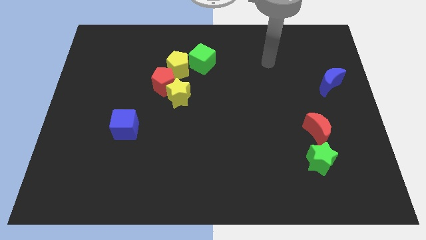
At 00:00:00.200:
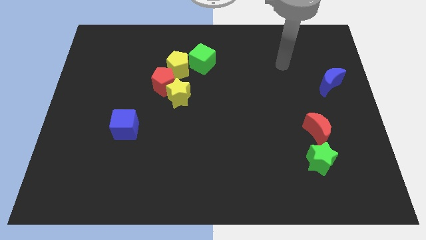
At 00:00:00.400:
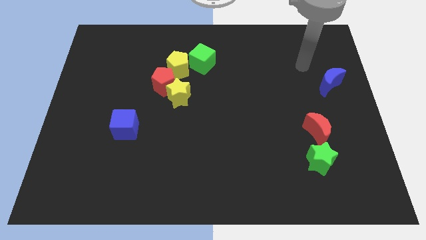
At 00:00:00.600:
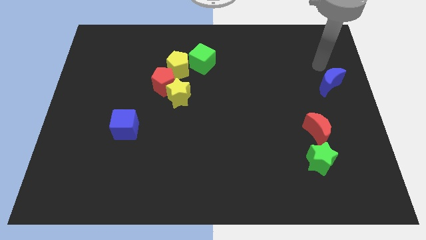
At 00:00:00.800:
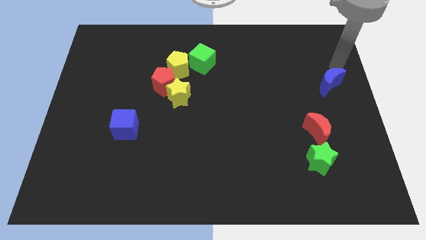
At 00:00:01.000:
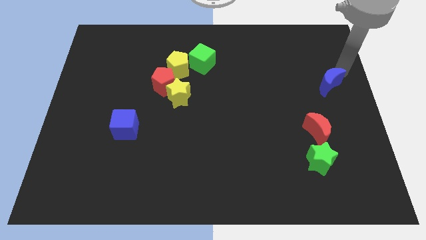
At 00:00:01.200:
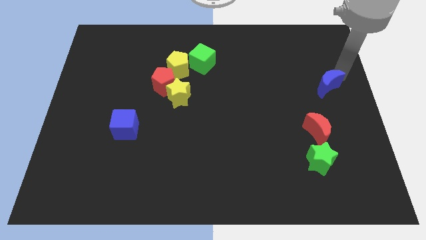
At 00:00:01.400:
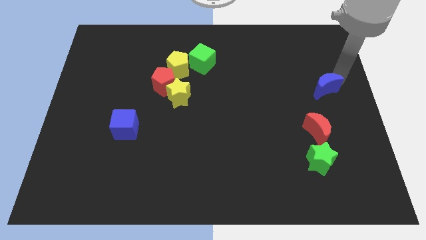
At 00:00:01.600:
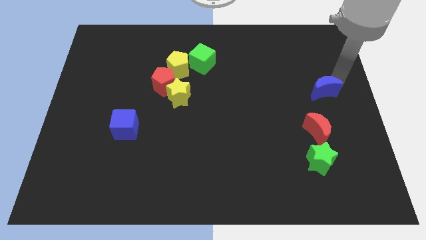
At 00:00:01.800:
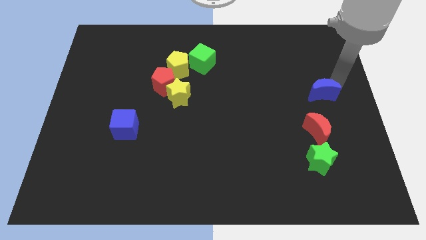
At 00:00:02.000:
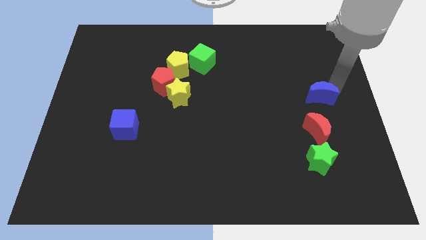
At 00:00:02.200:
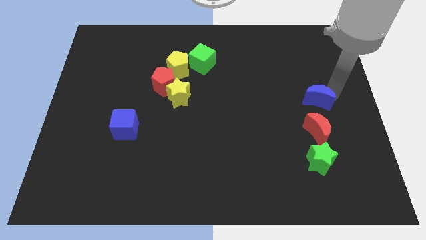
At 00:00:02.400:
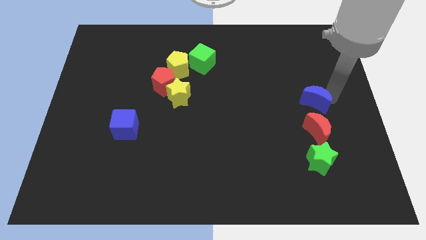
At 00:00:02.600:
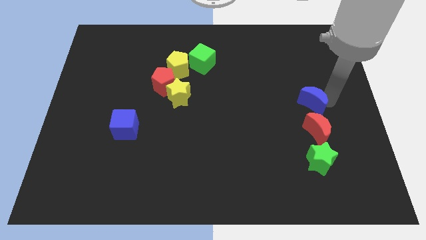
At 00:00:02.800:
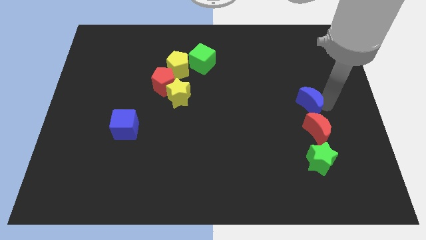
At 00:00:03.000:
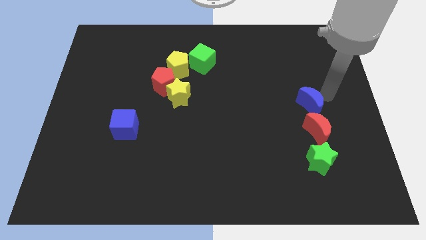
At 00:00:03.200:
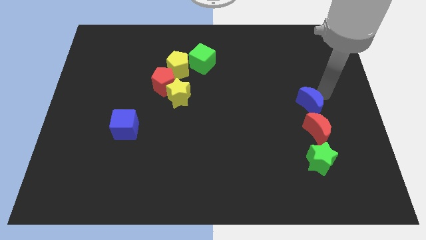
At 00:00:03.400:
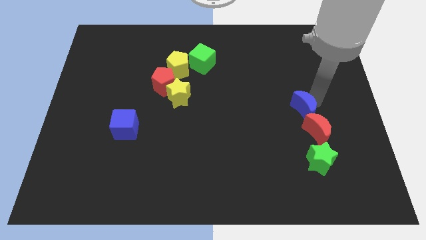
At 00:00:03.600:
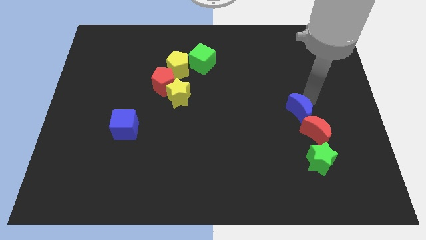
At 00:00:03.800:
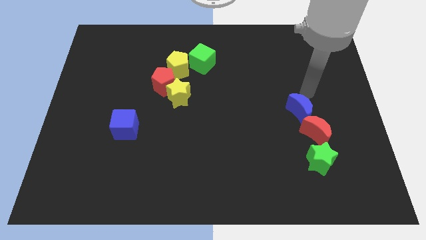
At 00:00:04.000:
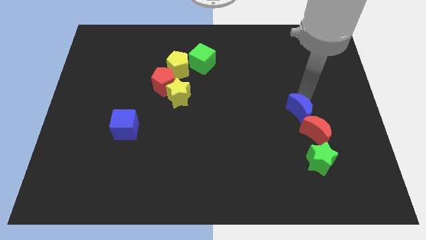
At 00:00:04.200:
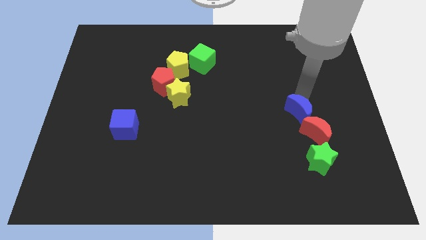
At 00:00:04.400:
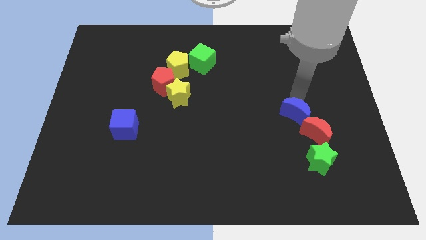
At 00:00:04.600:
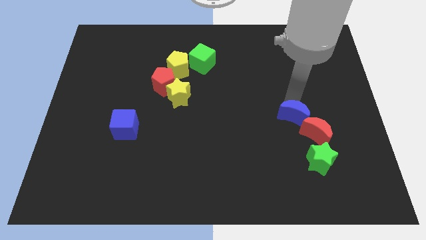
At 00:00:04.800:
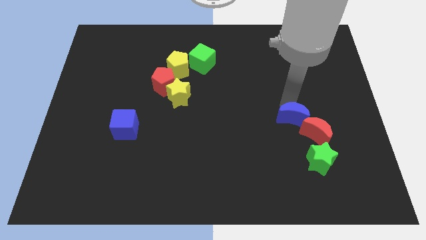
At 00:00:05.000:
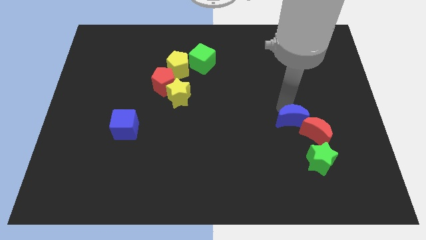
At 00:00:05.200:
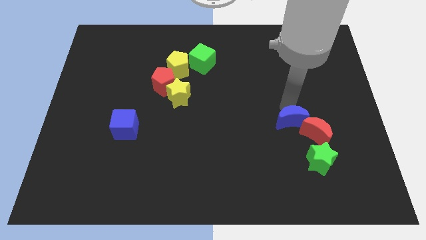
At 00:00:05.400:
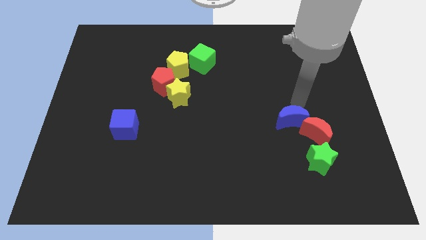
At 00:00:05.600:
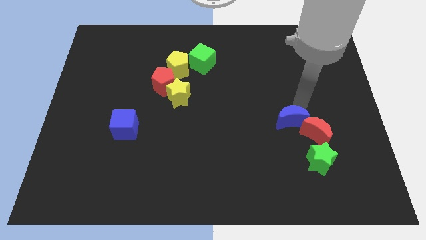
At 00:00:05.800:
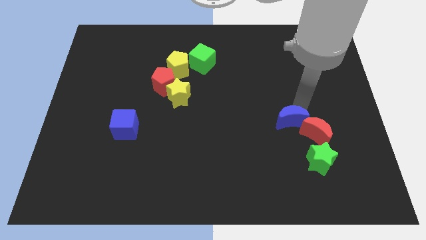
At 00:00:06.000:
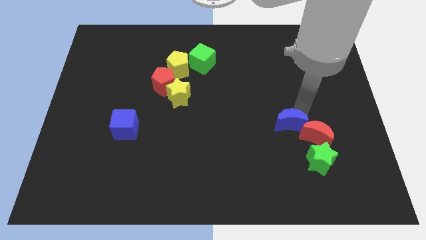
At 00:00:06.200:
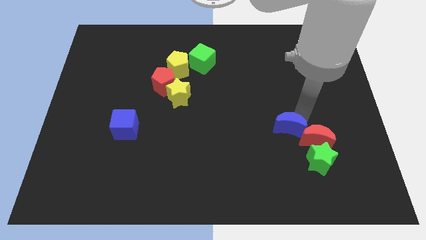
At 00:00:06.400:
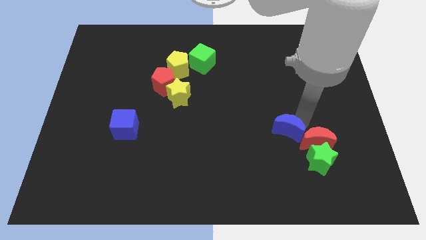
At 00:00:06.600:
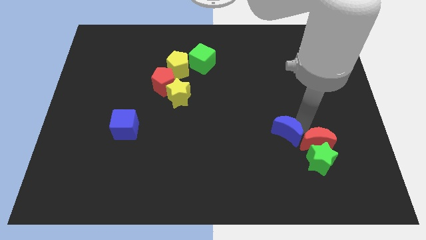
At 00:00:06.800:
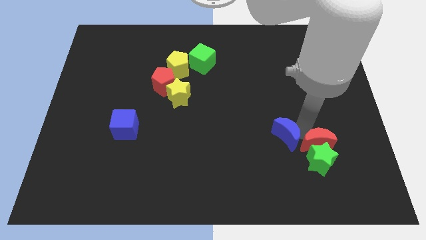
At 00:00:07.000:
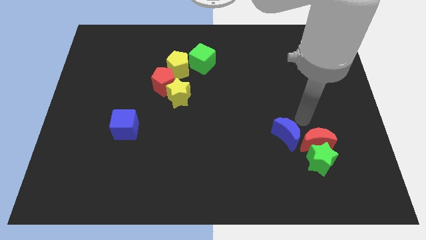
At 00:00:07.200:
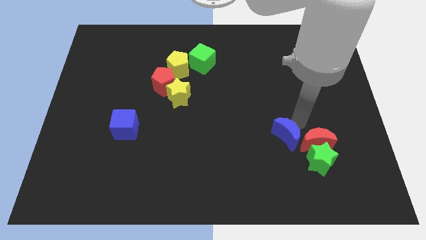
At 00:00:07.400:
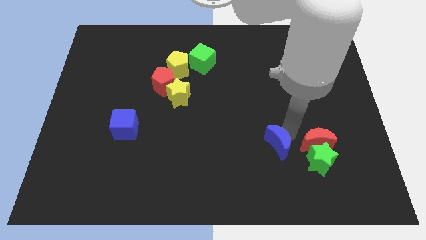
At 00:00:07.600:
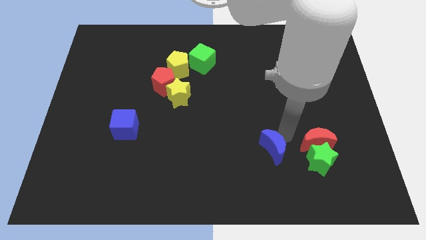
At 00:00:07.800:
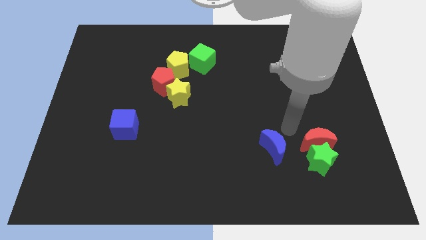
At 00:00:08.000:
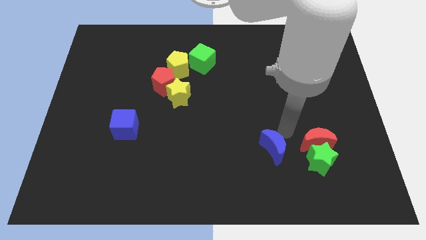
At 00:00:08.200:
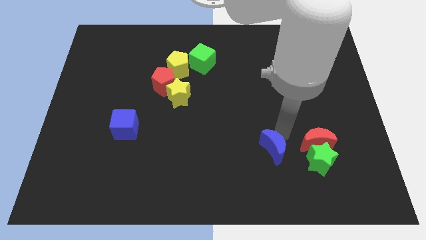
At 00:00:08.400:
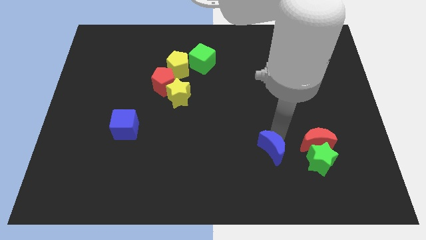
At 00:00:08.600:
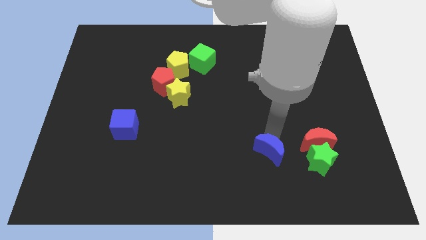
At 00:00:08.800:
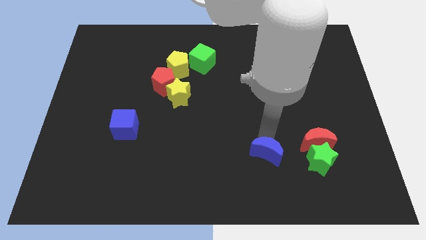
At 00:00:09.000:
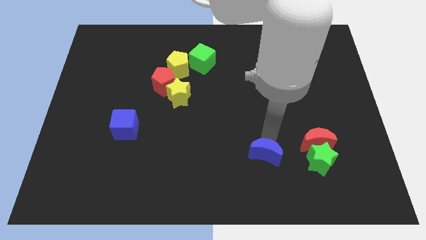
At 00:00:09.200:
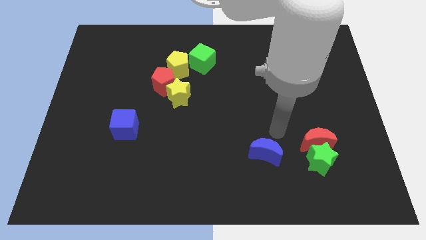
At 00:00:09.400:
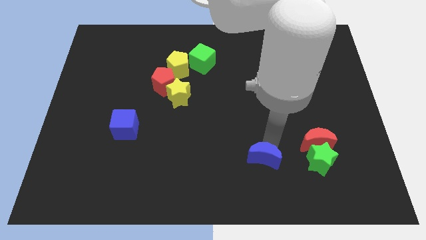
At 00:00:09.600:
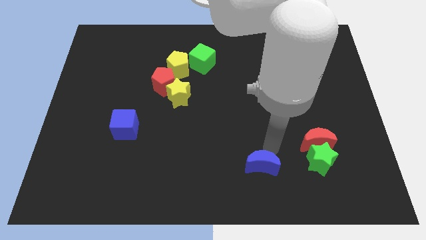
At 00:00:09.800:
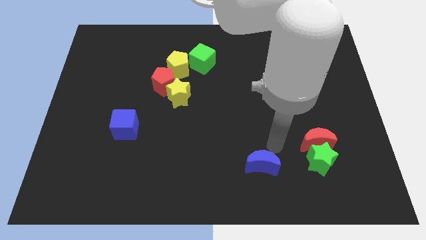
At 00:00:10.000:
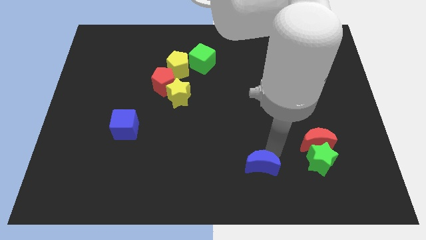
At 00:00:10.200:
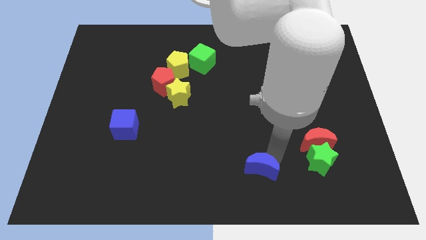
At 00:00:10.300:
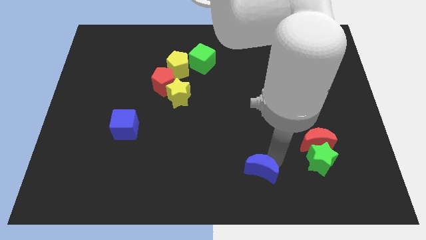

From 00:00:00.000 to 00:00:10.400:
move the blue moon to the bottom

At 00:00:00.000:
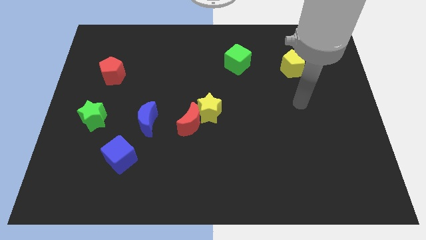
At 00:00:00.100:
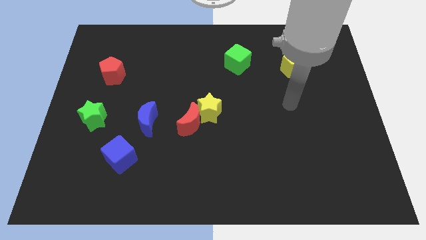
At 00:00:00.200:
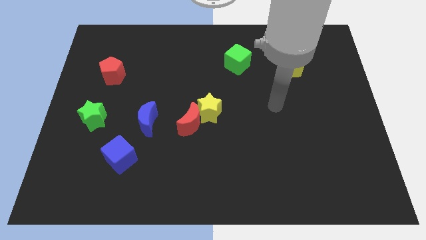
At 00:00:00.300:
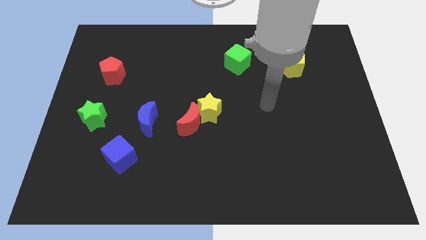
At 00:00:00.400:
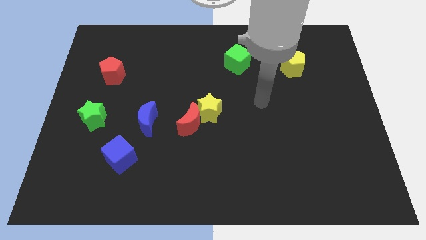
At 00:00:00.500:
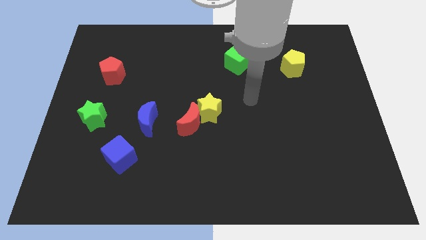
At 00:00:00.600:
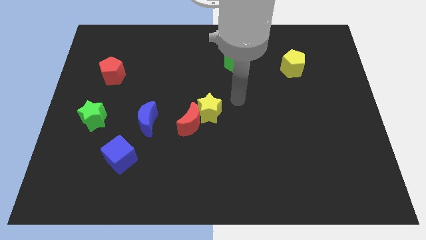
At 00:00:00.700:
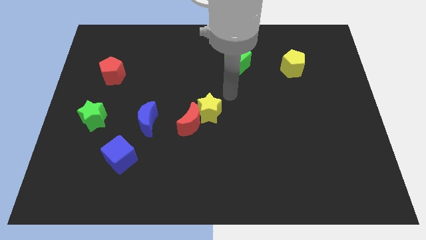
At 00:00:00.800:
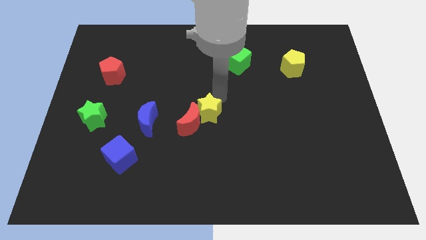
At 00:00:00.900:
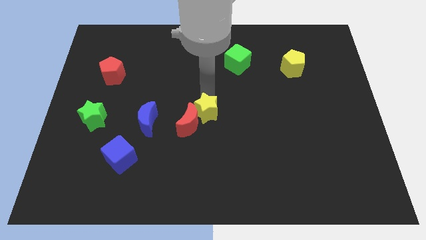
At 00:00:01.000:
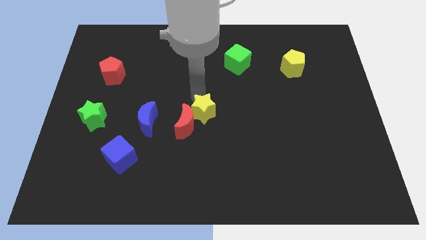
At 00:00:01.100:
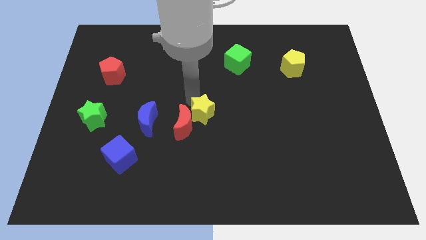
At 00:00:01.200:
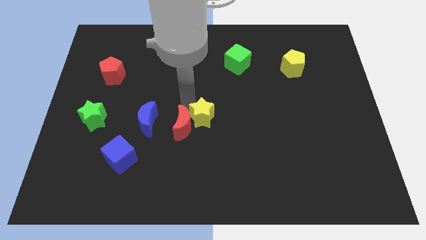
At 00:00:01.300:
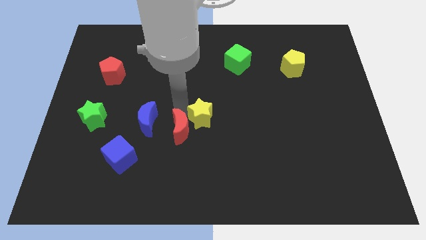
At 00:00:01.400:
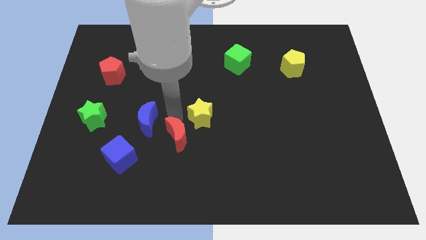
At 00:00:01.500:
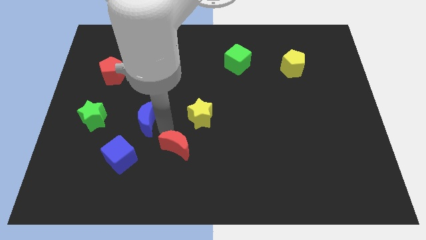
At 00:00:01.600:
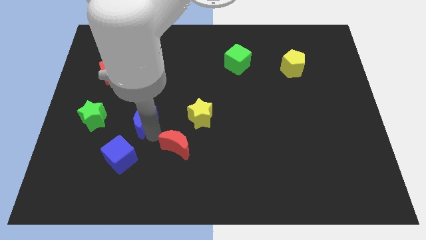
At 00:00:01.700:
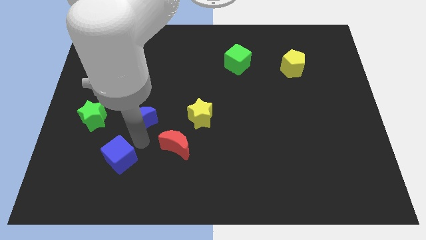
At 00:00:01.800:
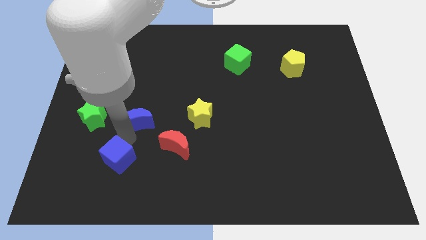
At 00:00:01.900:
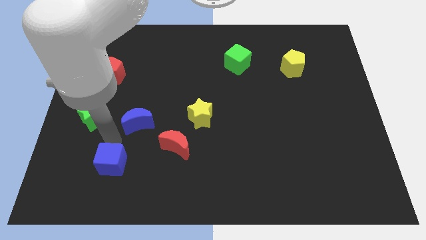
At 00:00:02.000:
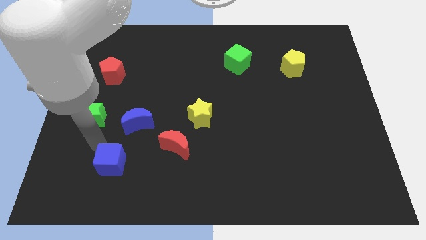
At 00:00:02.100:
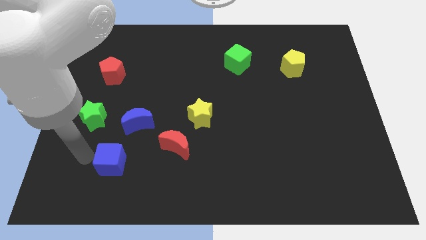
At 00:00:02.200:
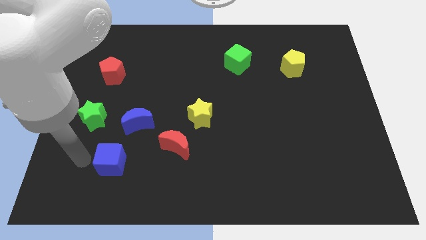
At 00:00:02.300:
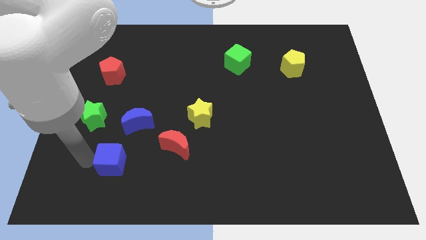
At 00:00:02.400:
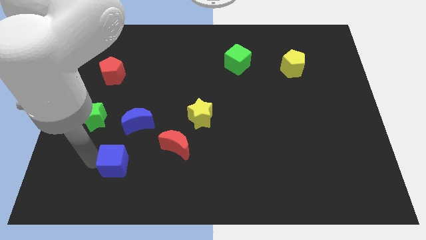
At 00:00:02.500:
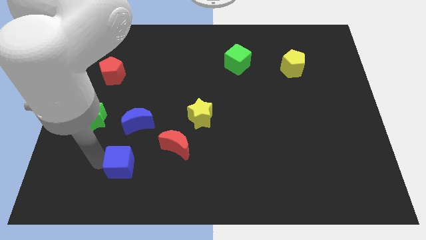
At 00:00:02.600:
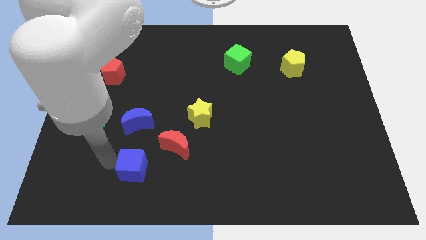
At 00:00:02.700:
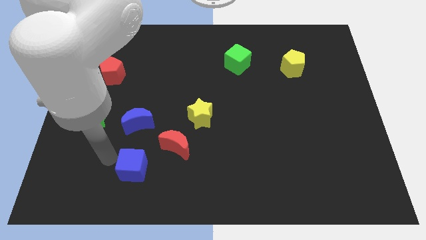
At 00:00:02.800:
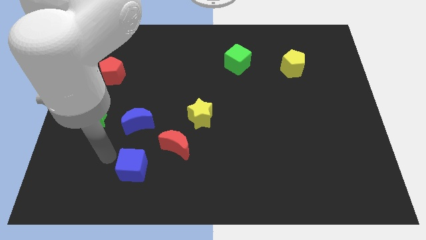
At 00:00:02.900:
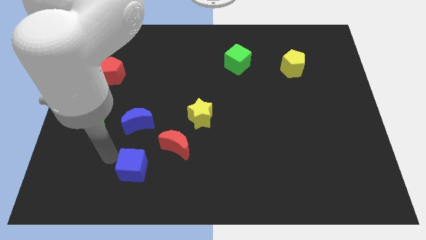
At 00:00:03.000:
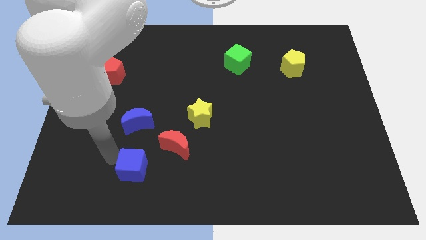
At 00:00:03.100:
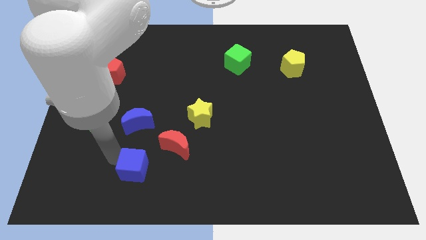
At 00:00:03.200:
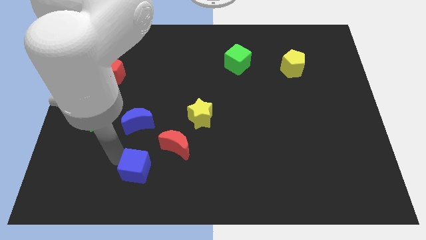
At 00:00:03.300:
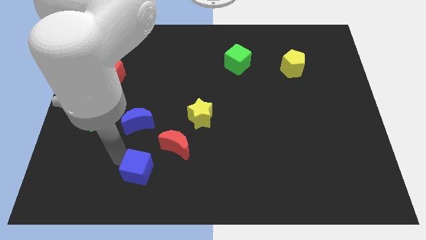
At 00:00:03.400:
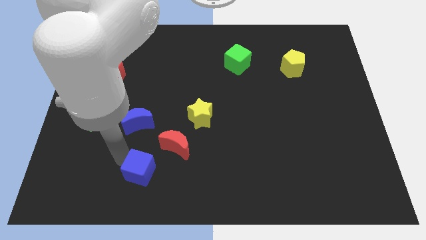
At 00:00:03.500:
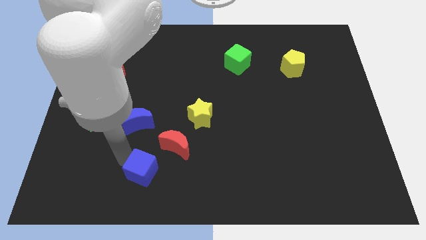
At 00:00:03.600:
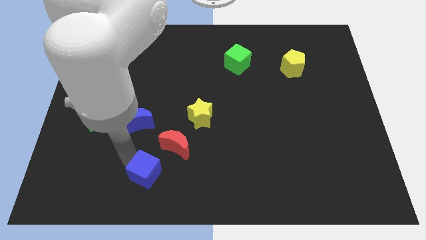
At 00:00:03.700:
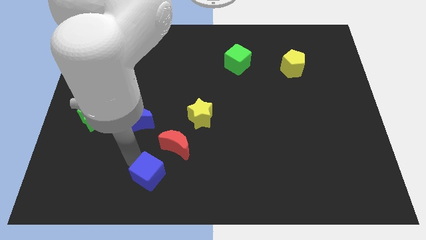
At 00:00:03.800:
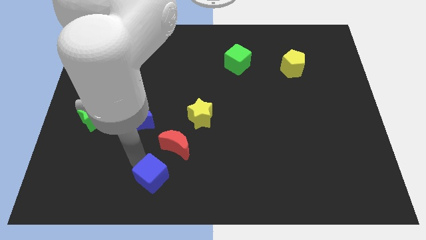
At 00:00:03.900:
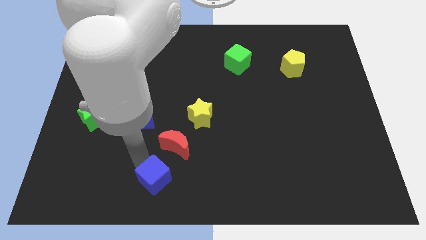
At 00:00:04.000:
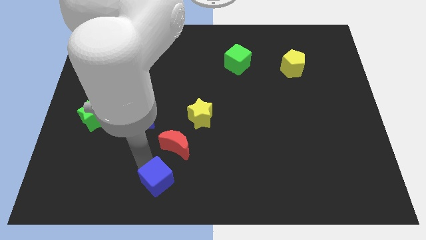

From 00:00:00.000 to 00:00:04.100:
move the blue cube to the bottom side
